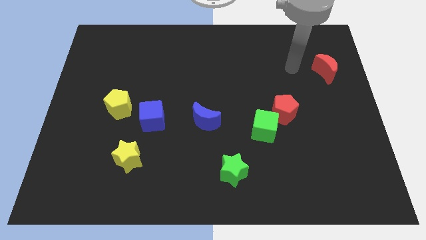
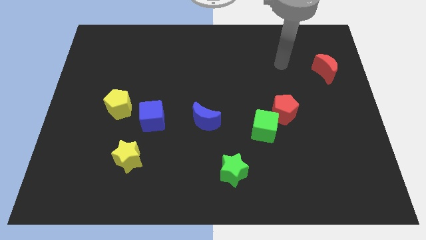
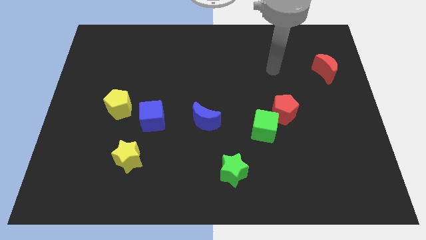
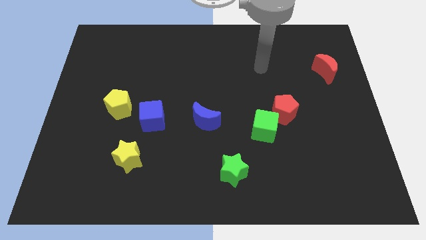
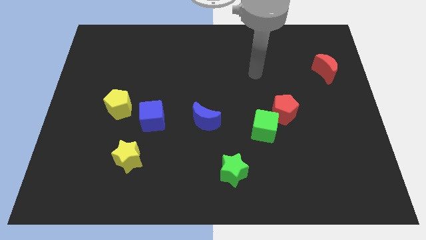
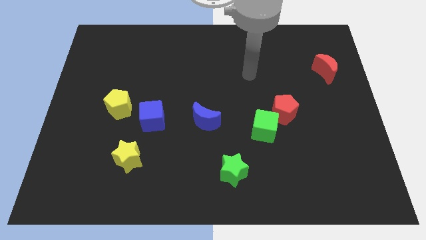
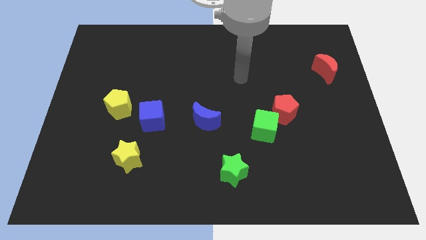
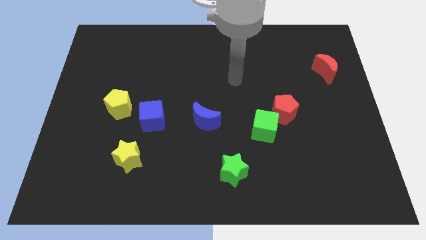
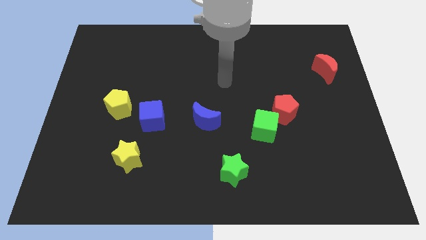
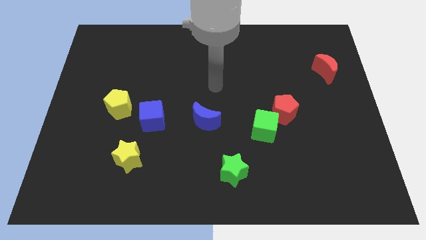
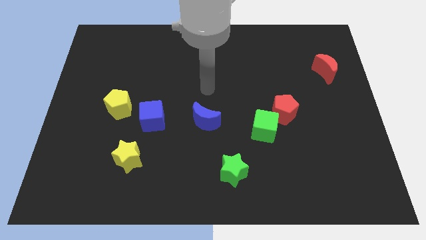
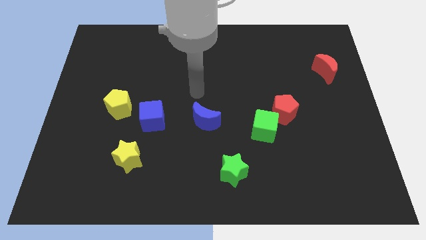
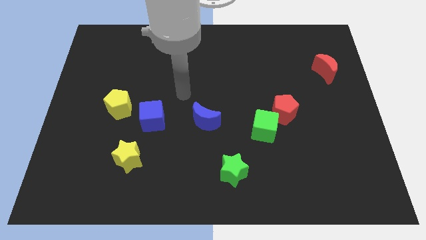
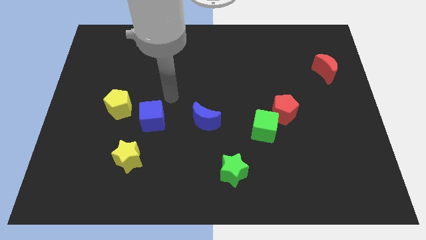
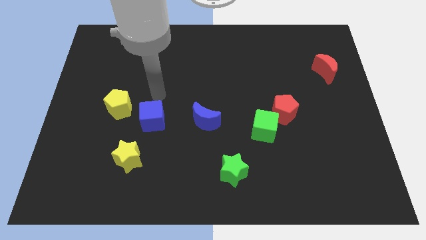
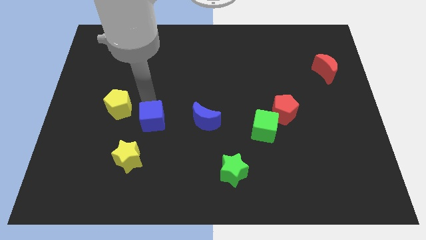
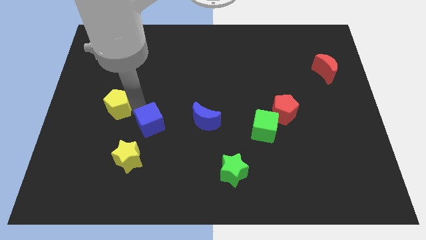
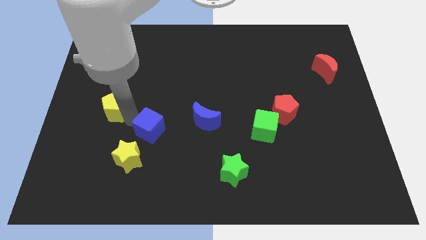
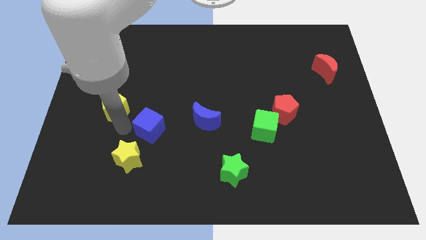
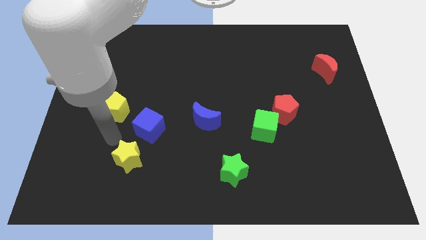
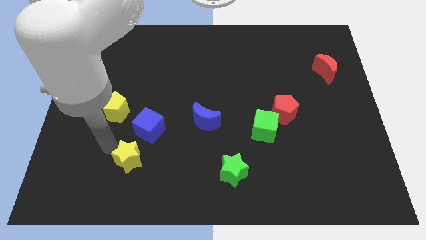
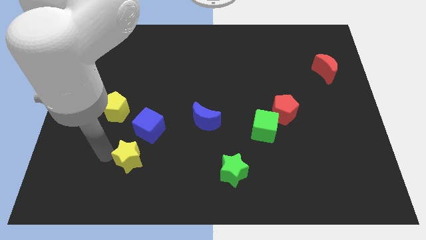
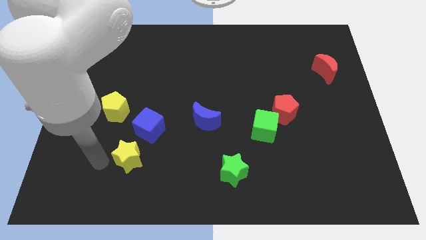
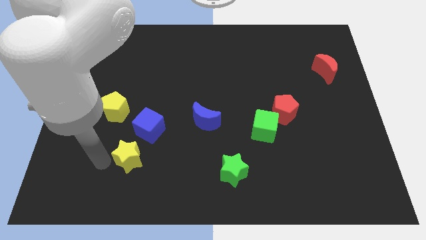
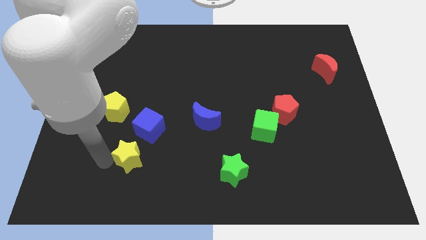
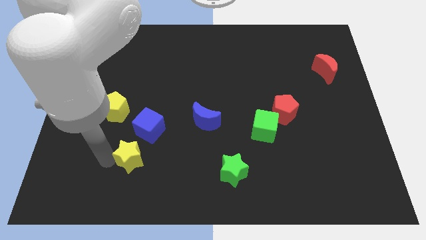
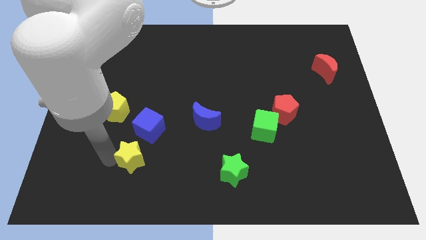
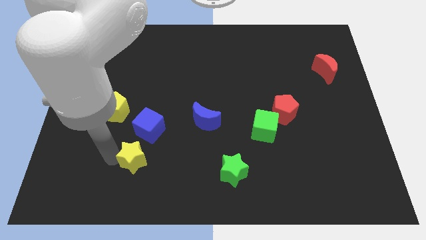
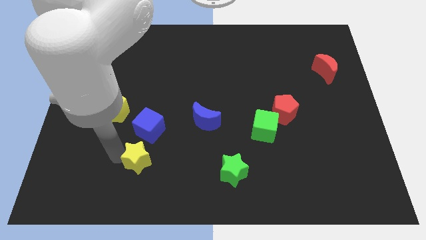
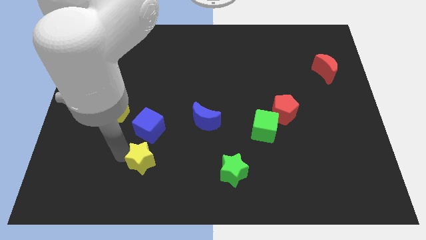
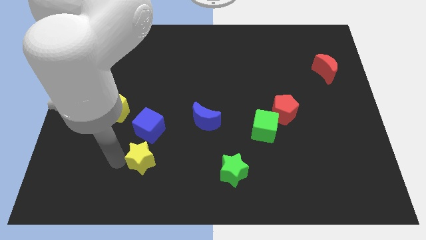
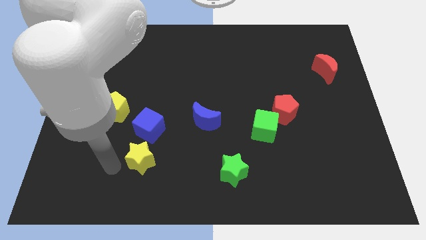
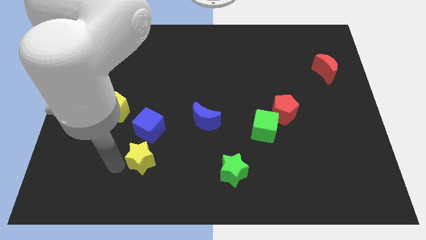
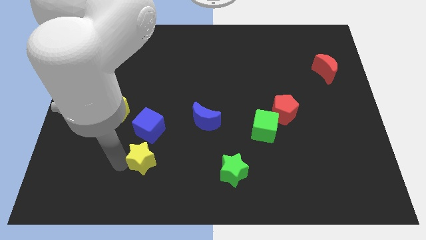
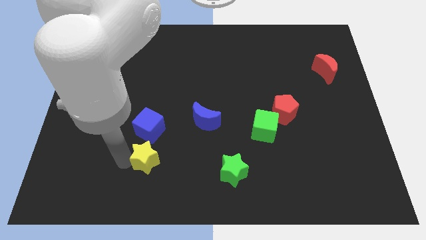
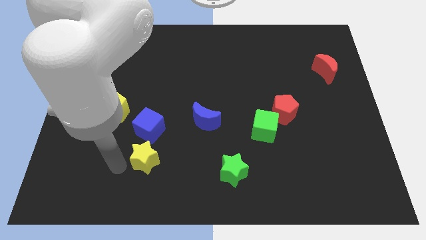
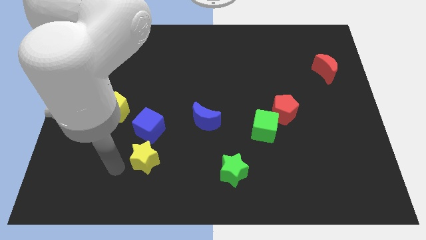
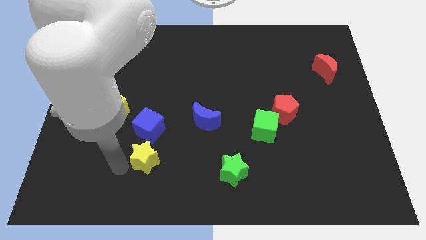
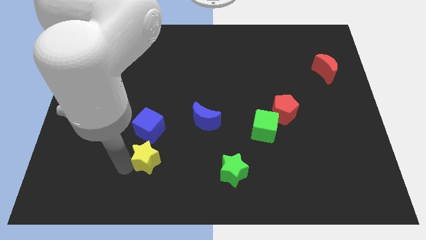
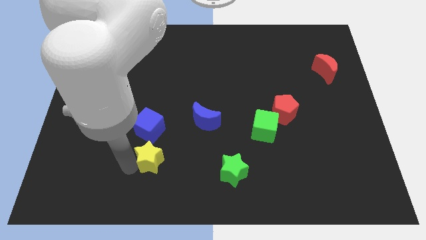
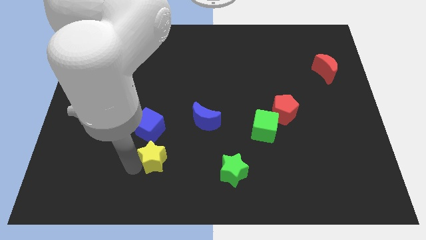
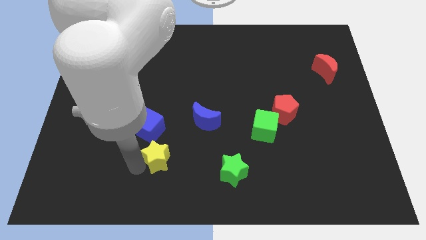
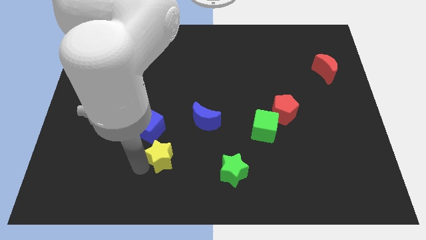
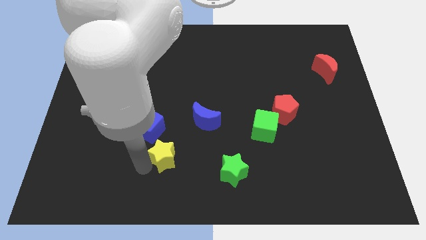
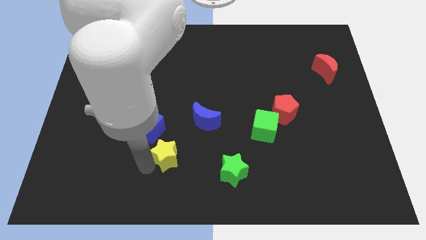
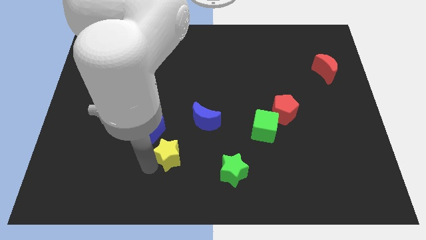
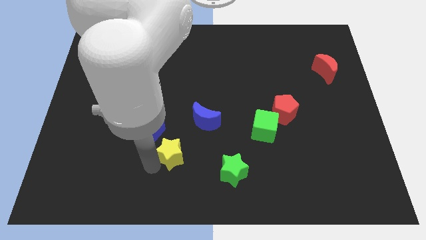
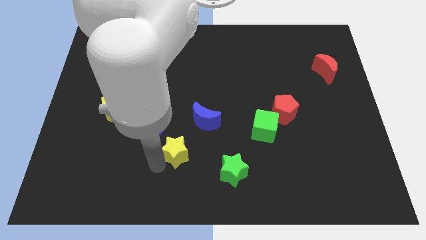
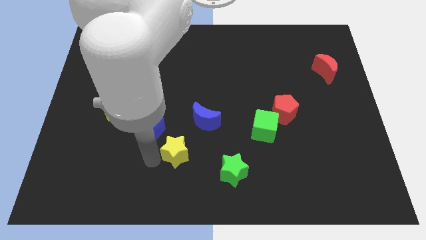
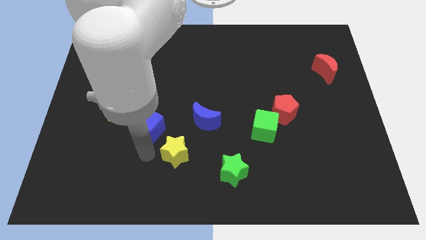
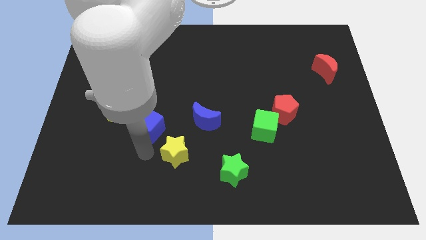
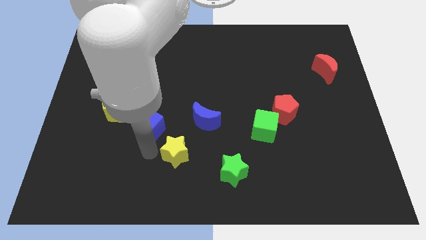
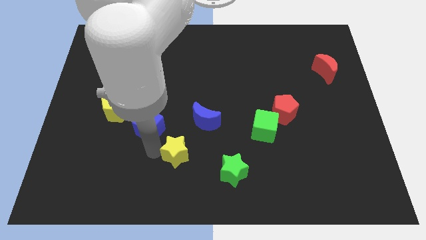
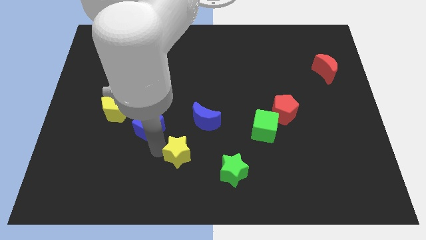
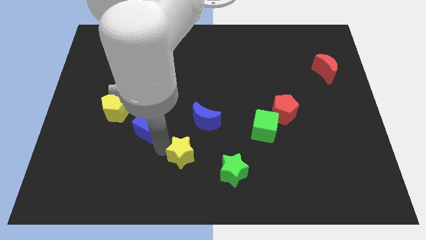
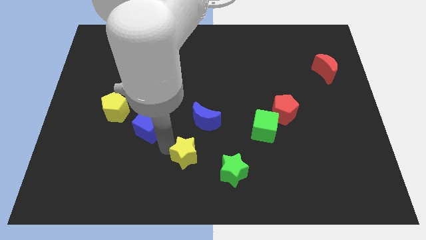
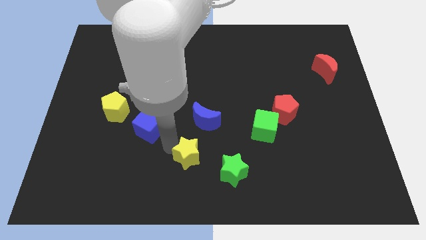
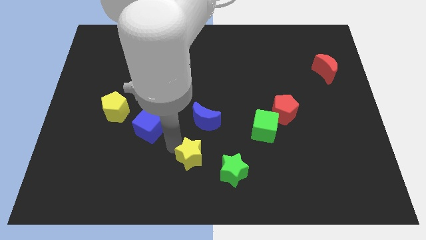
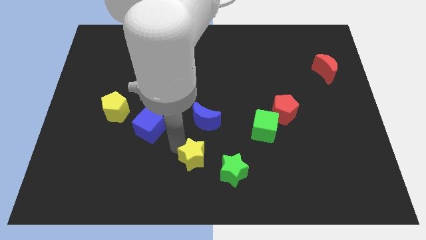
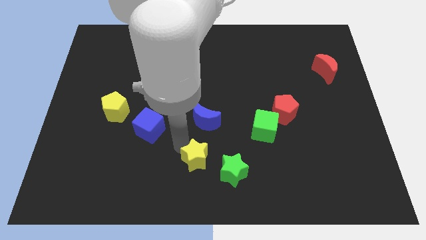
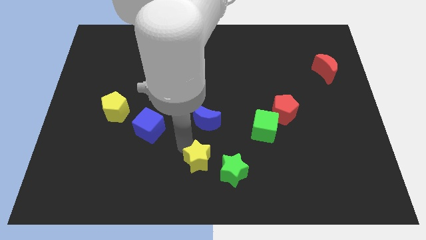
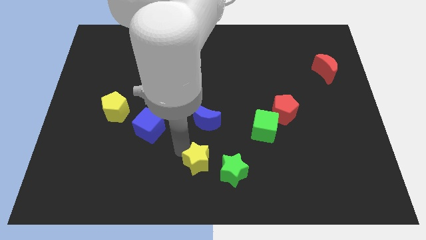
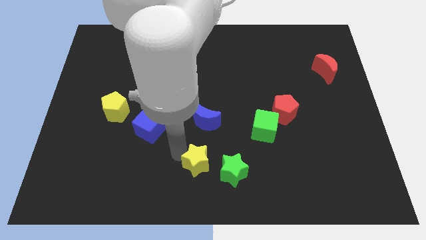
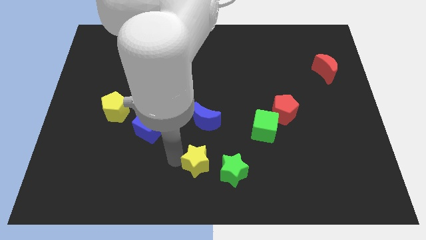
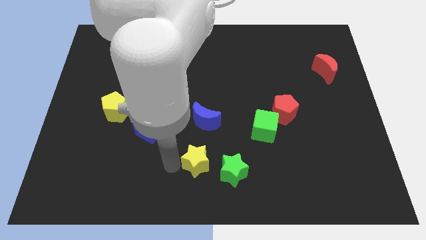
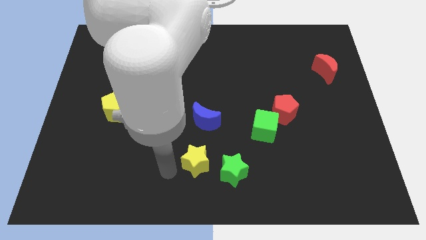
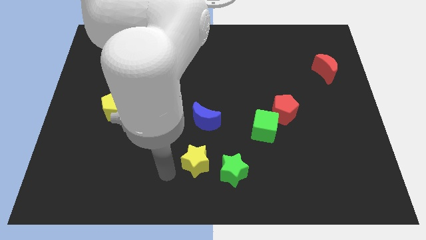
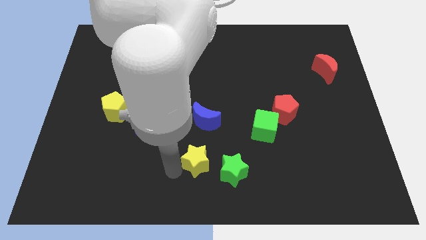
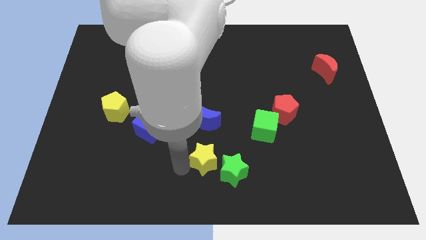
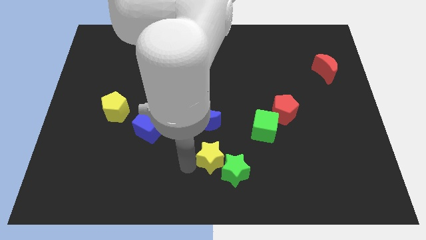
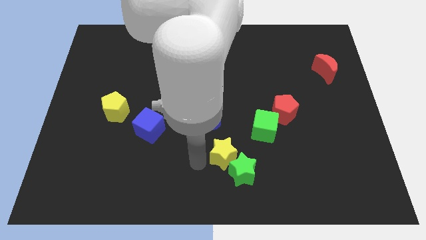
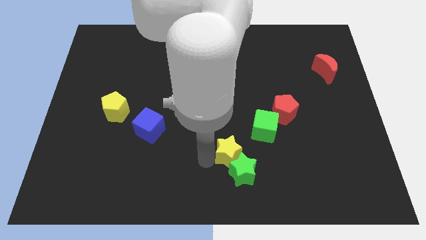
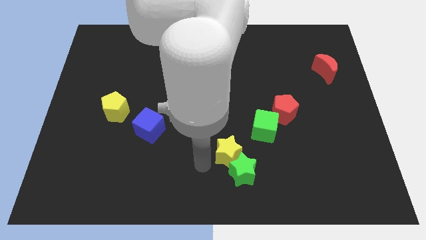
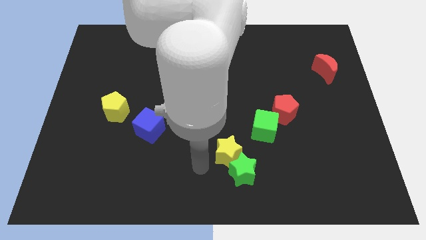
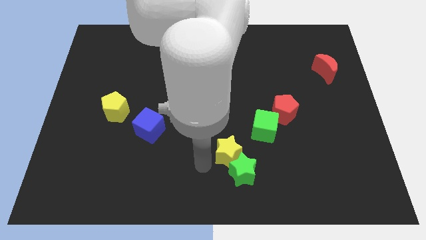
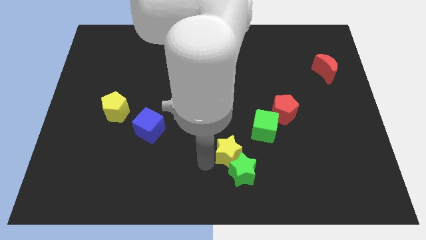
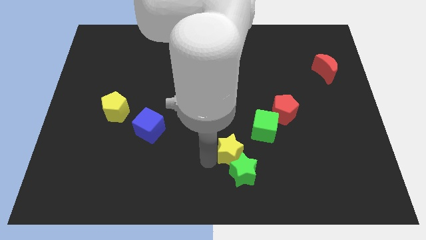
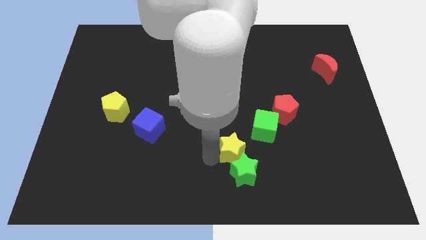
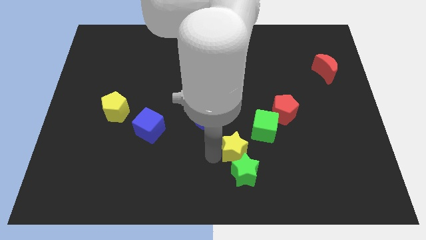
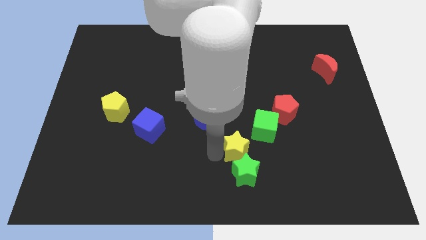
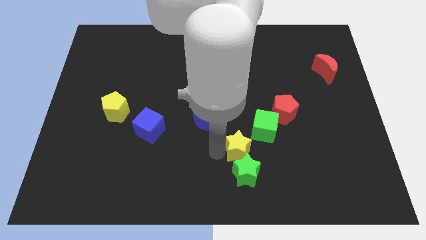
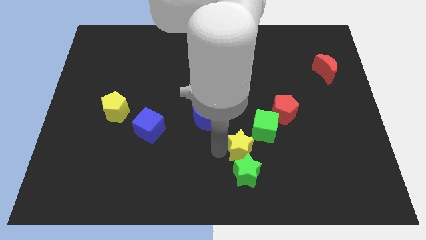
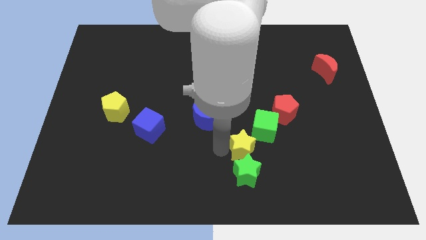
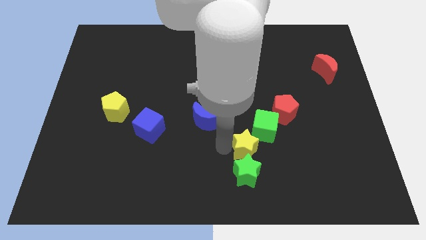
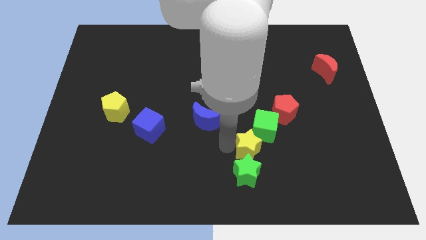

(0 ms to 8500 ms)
put the yellow star to the bottom left side of the red pentagon
